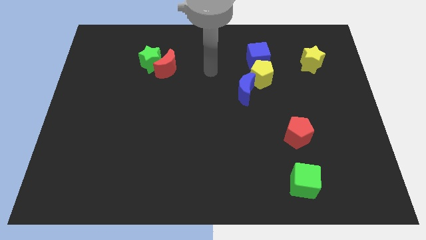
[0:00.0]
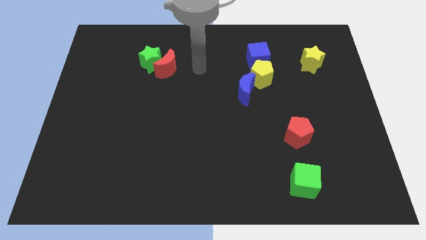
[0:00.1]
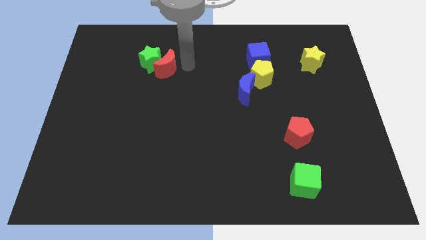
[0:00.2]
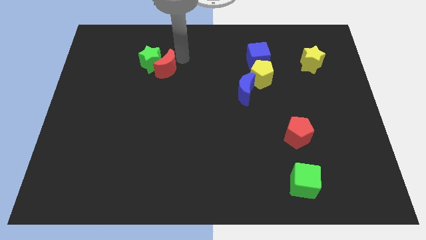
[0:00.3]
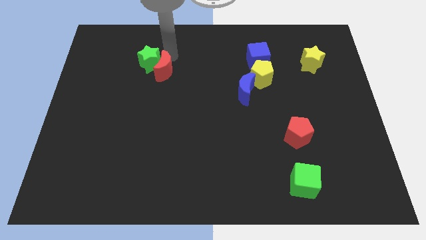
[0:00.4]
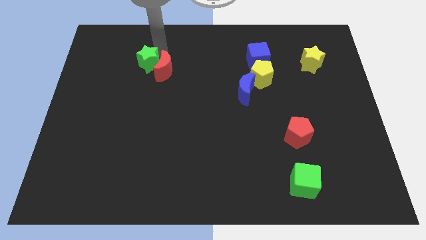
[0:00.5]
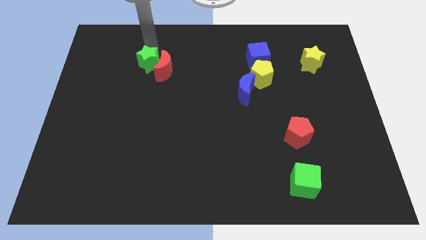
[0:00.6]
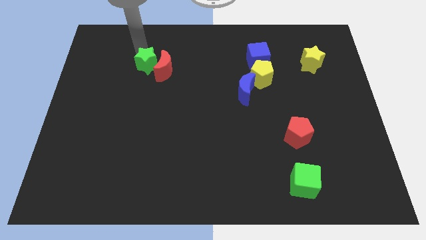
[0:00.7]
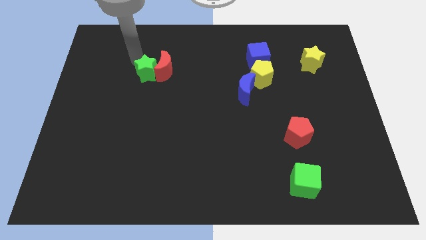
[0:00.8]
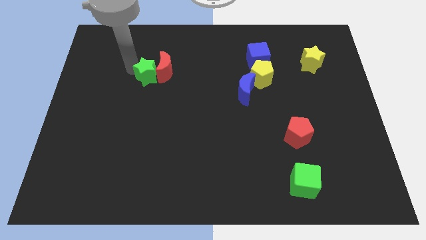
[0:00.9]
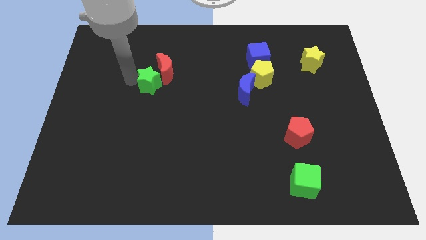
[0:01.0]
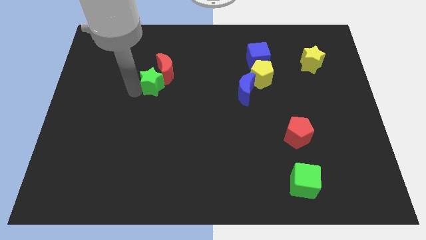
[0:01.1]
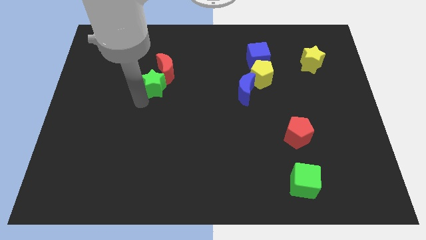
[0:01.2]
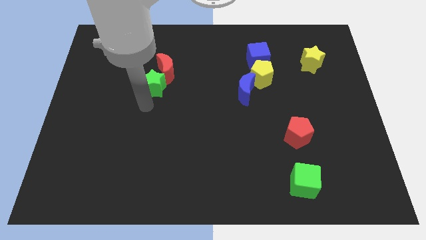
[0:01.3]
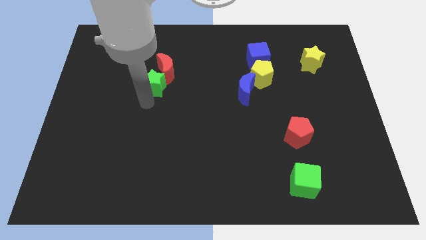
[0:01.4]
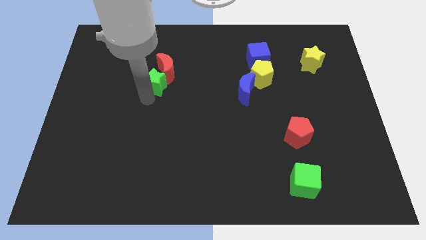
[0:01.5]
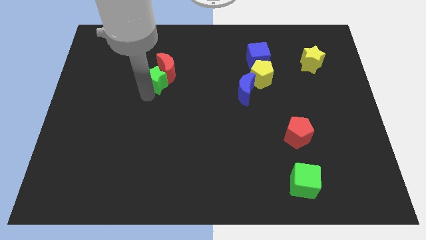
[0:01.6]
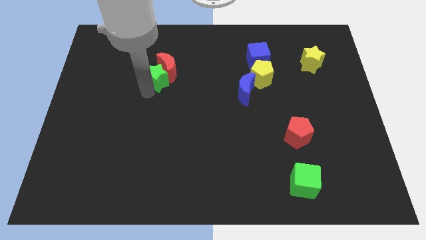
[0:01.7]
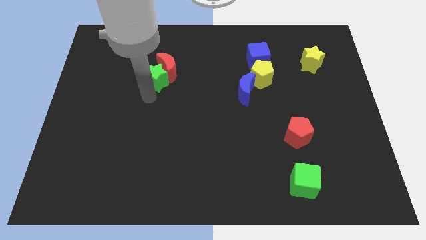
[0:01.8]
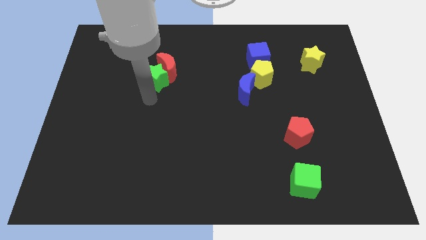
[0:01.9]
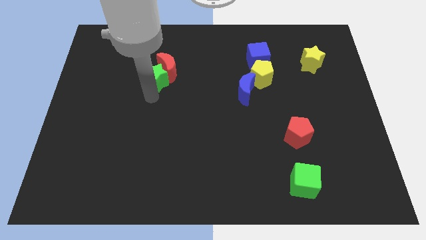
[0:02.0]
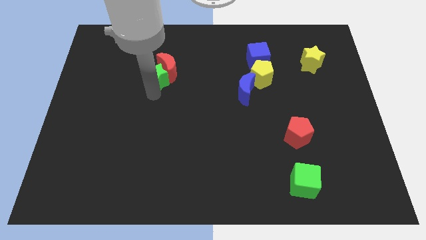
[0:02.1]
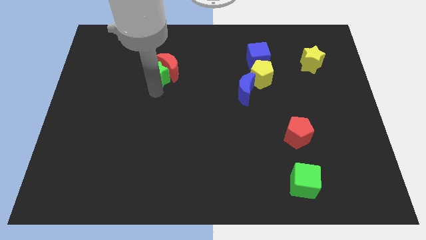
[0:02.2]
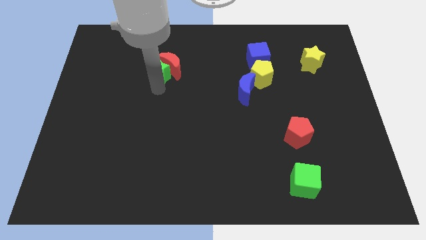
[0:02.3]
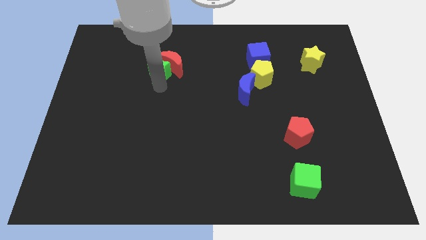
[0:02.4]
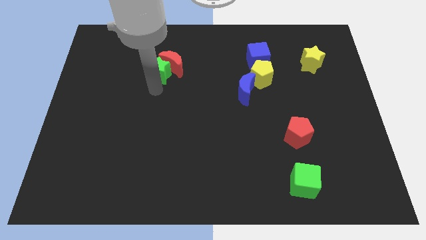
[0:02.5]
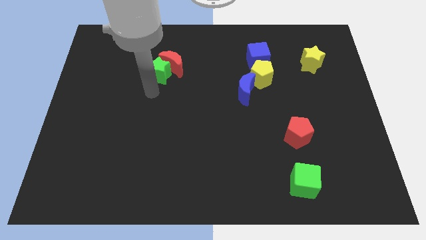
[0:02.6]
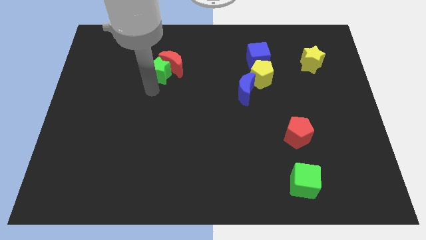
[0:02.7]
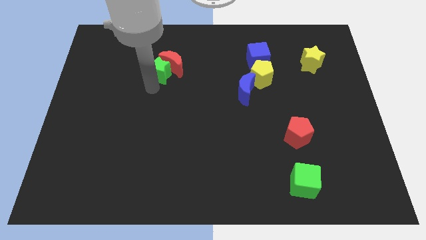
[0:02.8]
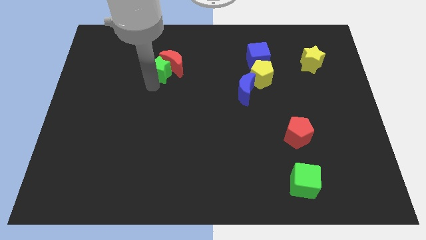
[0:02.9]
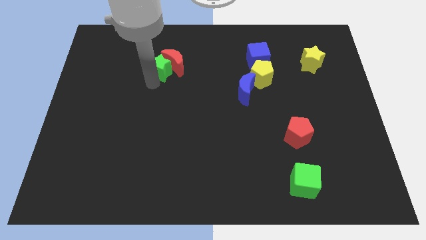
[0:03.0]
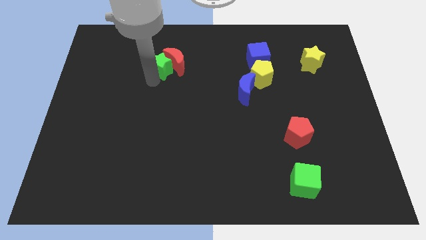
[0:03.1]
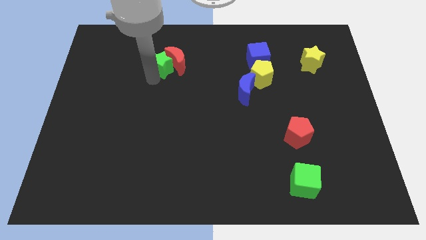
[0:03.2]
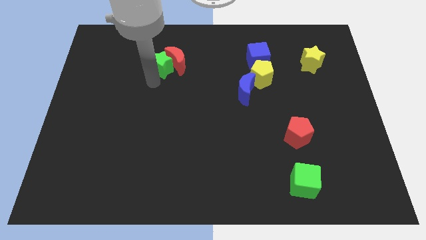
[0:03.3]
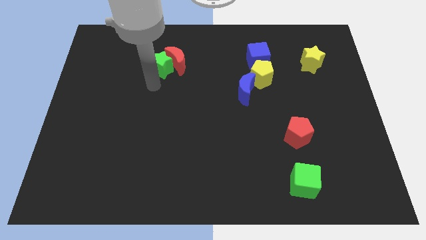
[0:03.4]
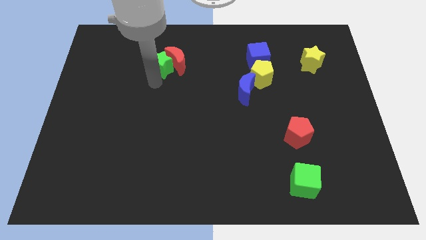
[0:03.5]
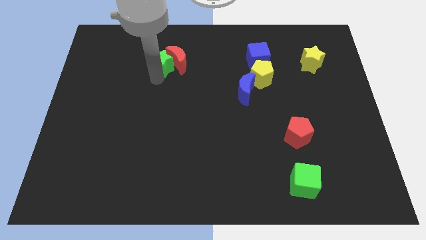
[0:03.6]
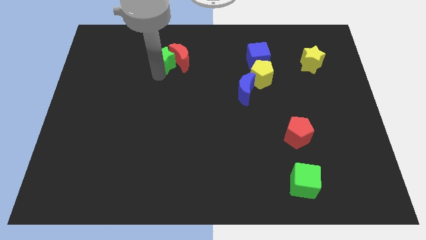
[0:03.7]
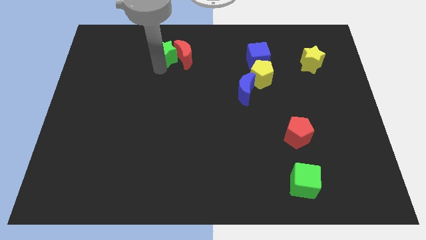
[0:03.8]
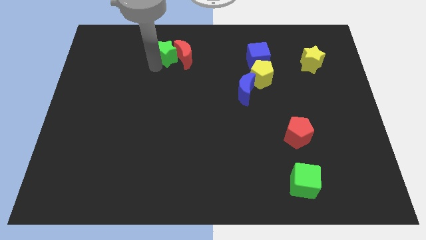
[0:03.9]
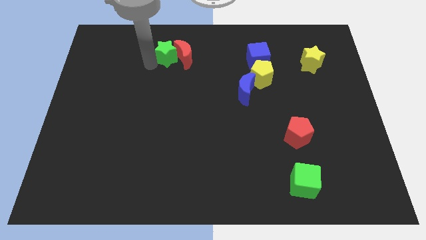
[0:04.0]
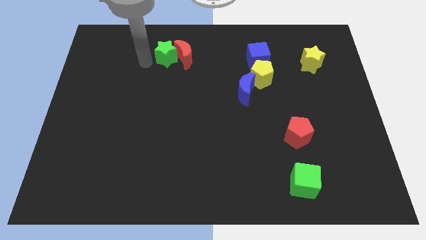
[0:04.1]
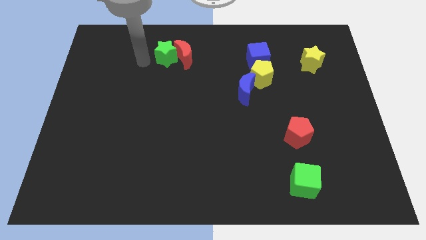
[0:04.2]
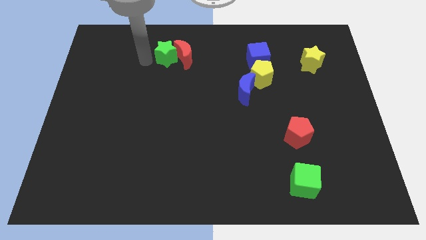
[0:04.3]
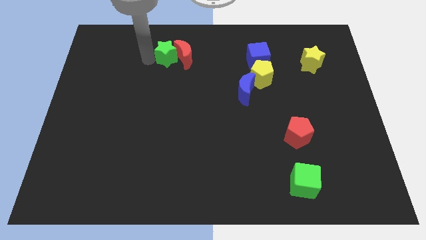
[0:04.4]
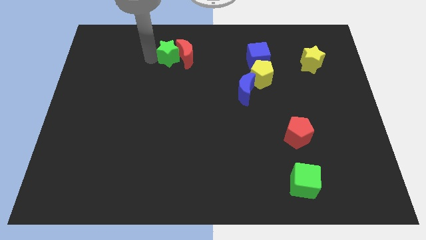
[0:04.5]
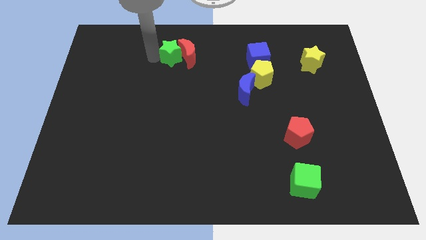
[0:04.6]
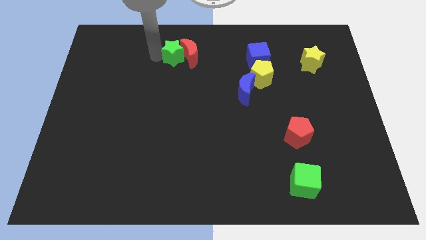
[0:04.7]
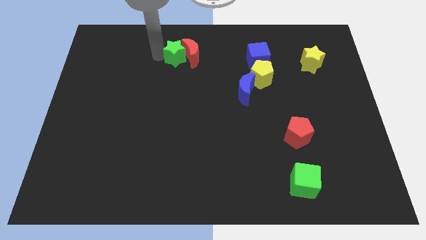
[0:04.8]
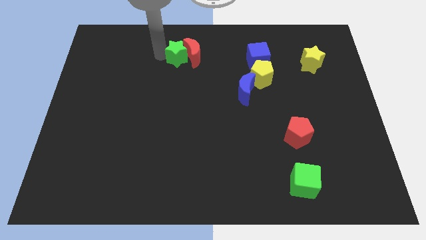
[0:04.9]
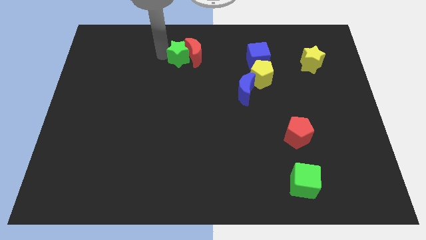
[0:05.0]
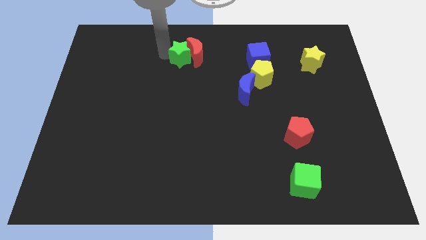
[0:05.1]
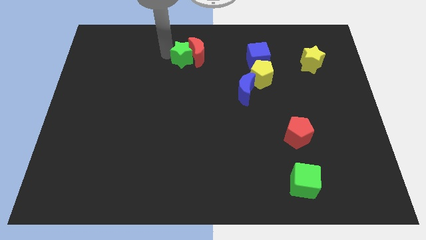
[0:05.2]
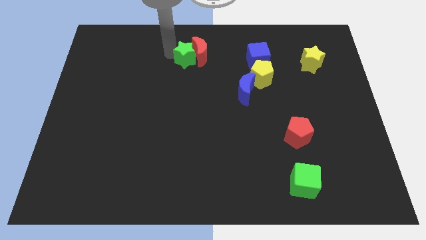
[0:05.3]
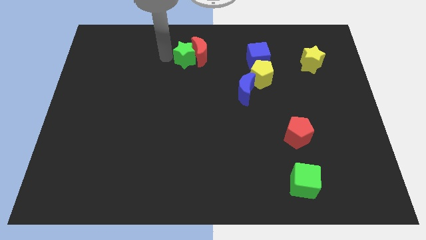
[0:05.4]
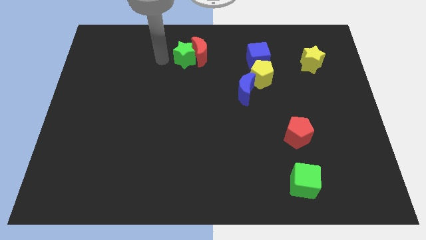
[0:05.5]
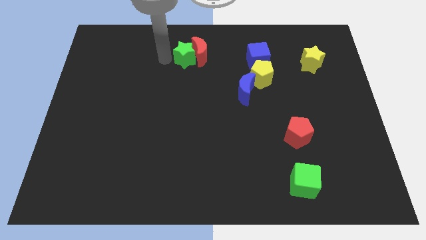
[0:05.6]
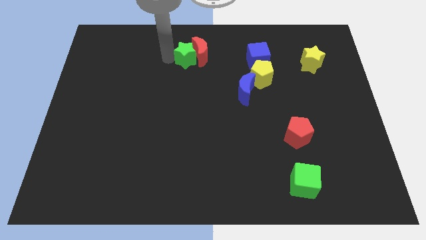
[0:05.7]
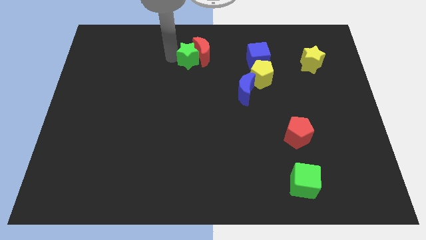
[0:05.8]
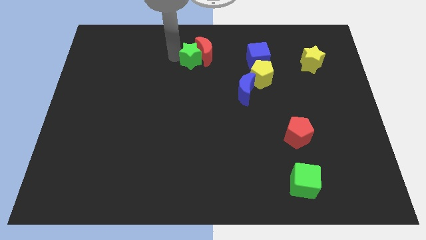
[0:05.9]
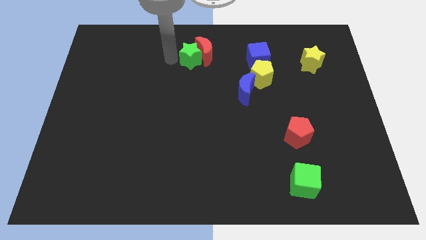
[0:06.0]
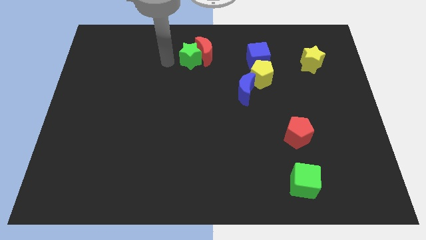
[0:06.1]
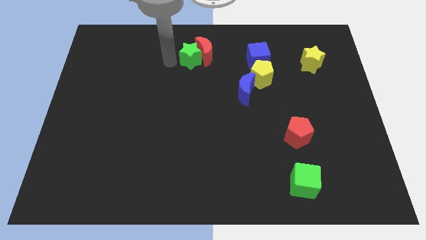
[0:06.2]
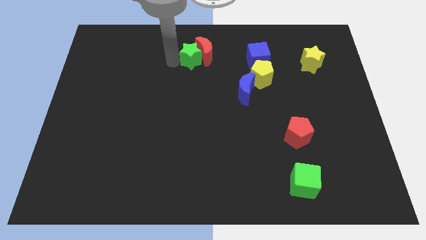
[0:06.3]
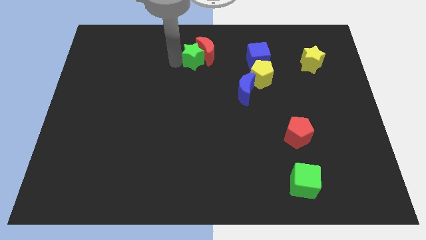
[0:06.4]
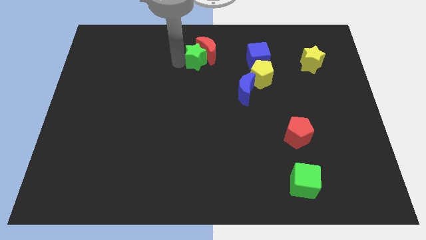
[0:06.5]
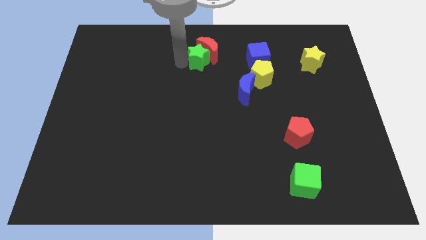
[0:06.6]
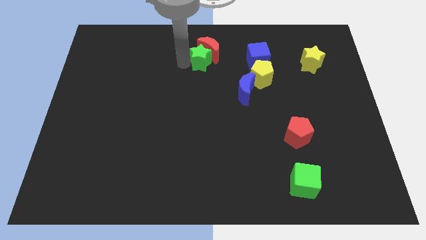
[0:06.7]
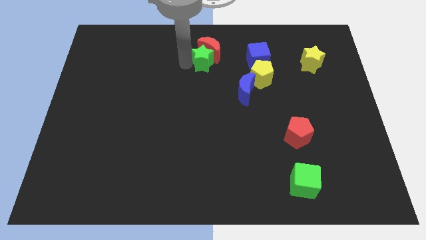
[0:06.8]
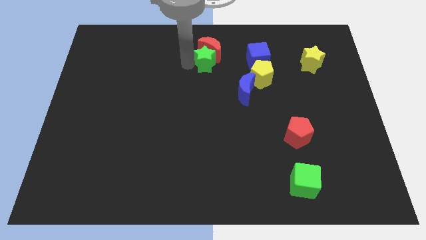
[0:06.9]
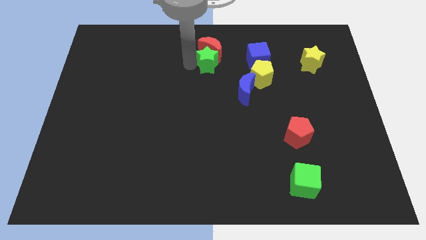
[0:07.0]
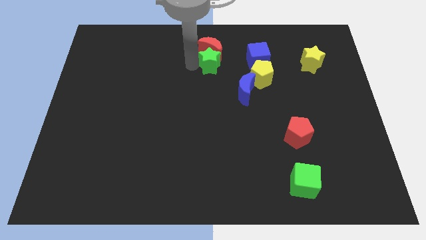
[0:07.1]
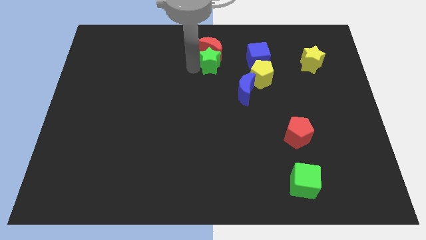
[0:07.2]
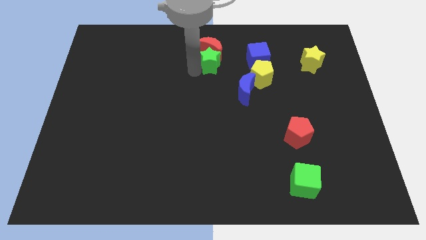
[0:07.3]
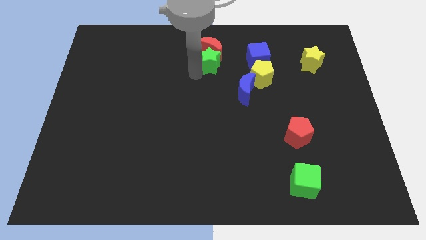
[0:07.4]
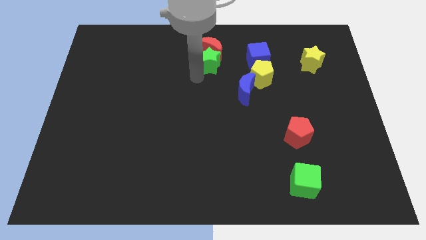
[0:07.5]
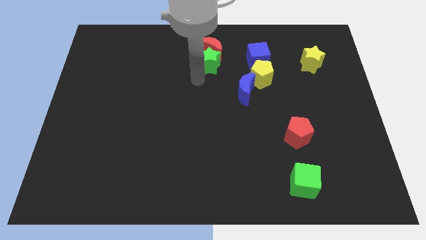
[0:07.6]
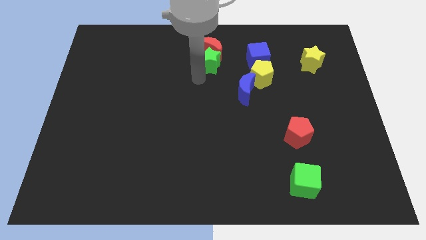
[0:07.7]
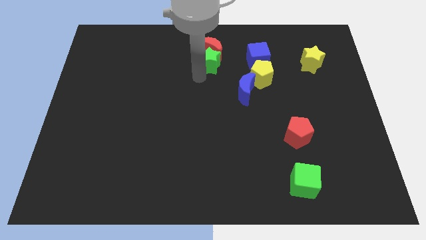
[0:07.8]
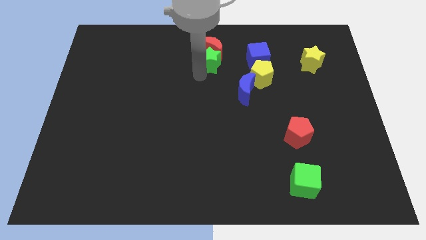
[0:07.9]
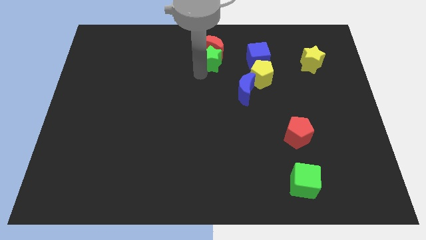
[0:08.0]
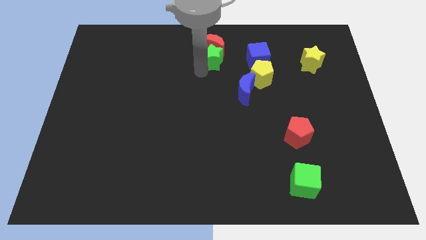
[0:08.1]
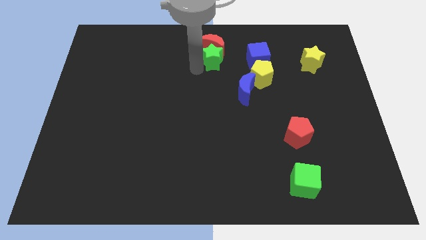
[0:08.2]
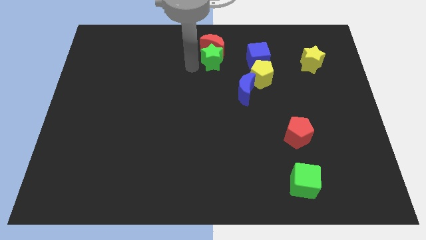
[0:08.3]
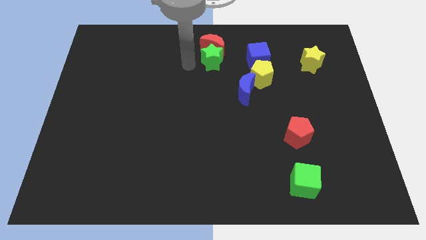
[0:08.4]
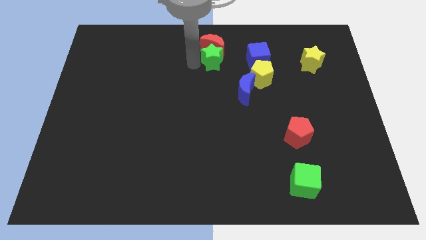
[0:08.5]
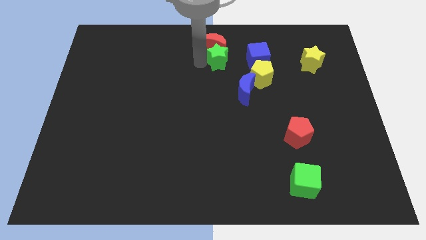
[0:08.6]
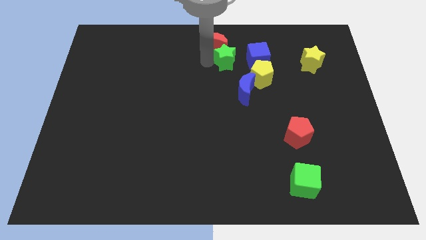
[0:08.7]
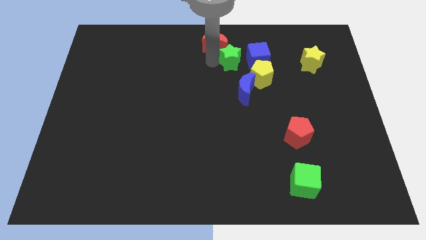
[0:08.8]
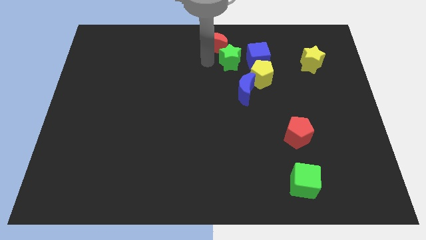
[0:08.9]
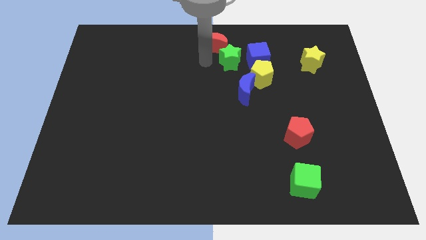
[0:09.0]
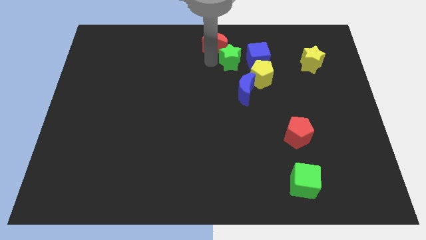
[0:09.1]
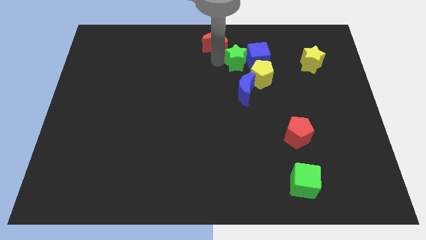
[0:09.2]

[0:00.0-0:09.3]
move the green star next to the blue cube
